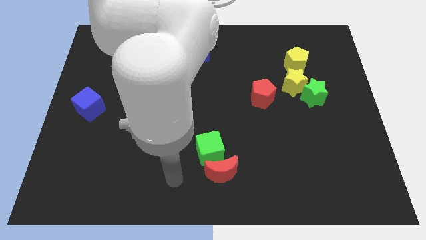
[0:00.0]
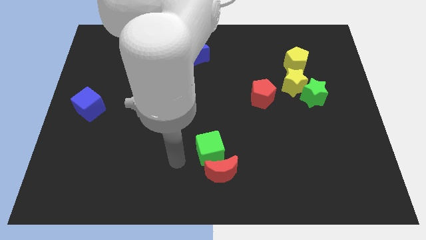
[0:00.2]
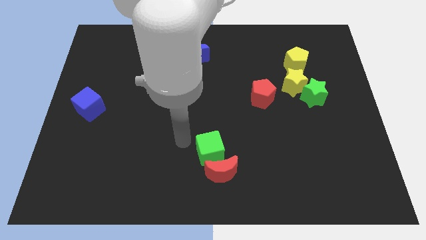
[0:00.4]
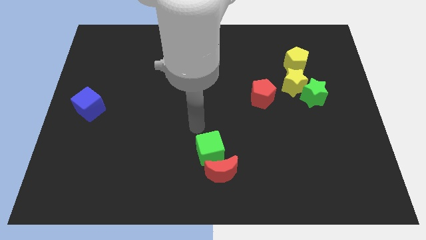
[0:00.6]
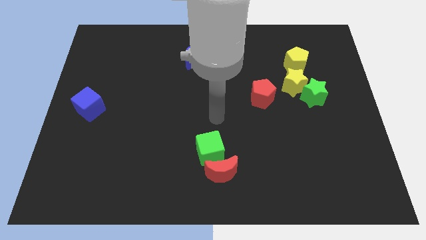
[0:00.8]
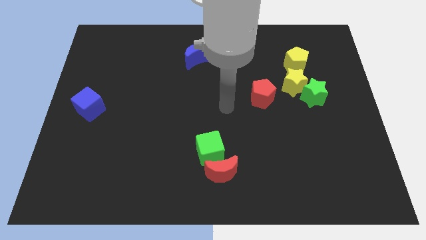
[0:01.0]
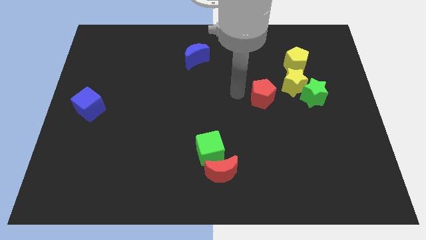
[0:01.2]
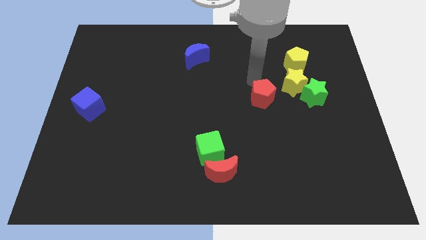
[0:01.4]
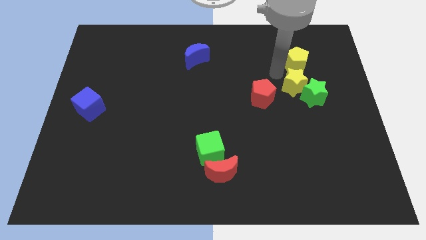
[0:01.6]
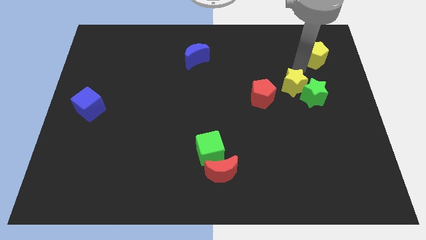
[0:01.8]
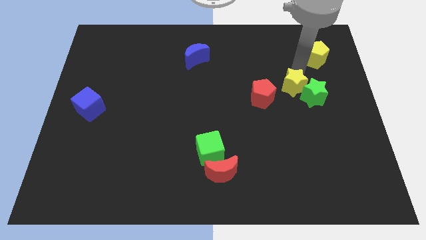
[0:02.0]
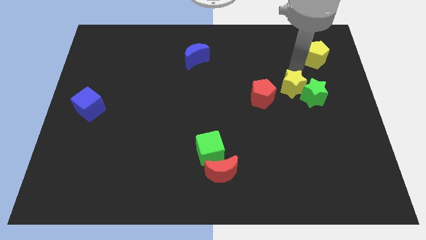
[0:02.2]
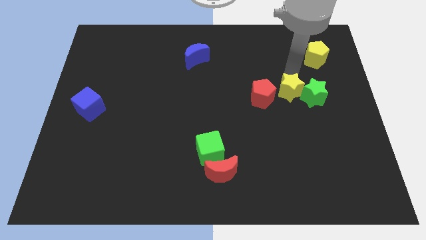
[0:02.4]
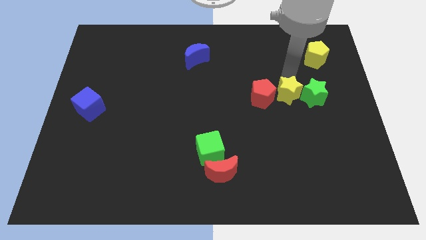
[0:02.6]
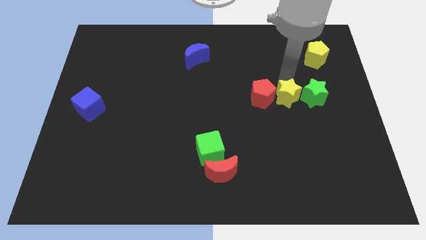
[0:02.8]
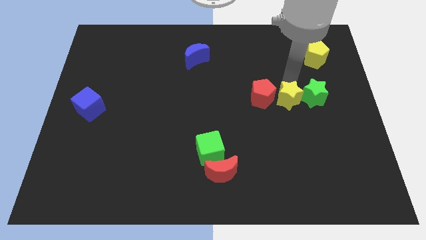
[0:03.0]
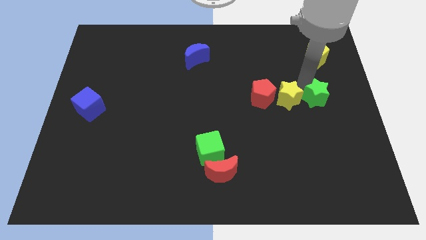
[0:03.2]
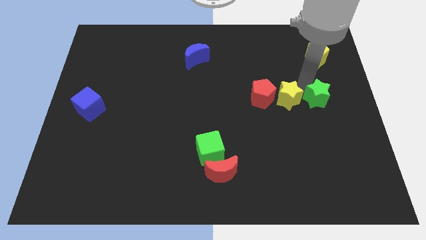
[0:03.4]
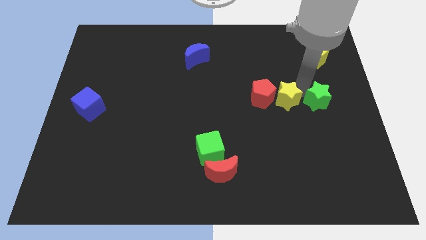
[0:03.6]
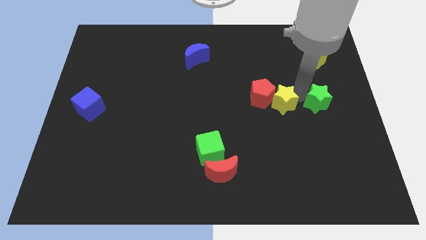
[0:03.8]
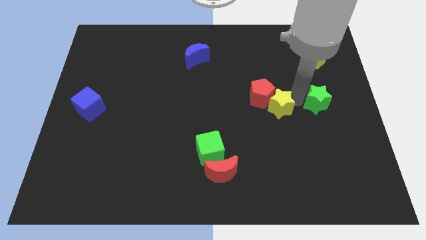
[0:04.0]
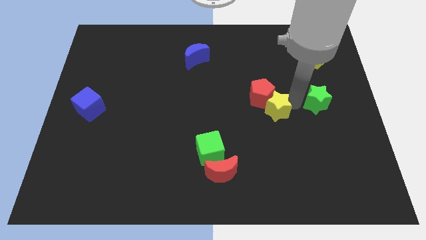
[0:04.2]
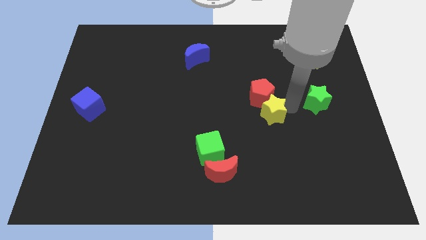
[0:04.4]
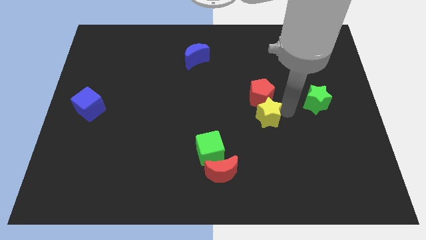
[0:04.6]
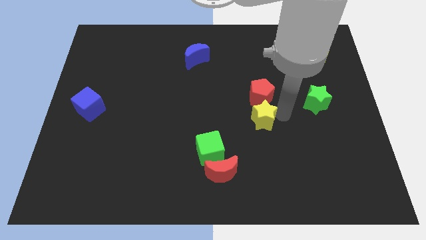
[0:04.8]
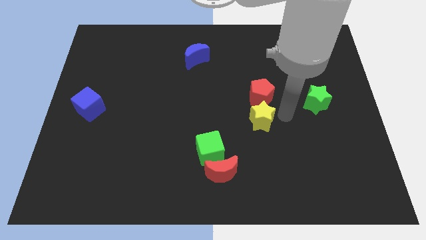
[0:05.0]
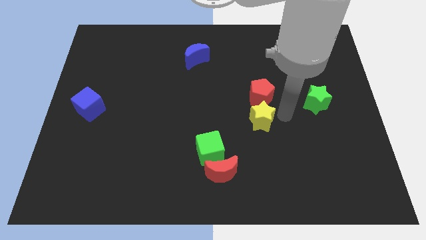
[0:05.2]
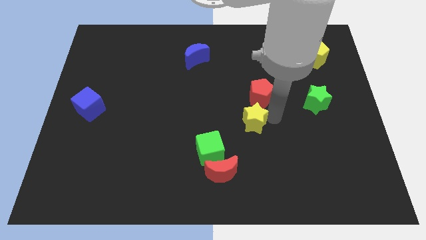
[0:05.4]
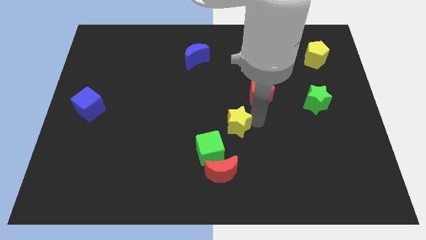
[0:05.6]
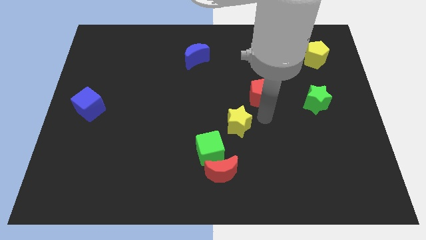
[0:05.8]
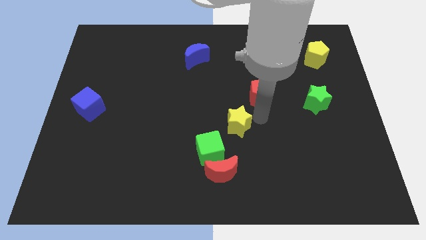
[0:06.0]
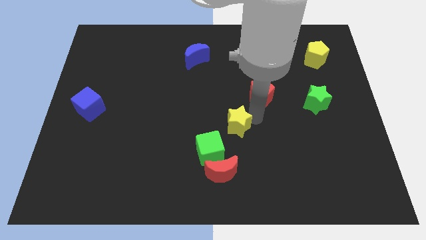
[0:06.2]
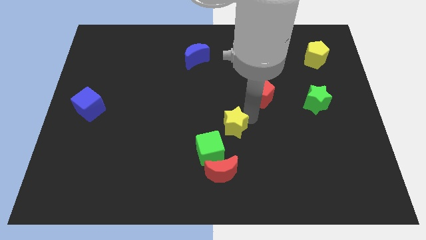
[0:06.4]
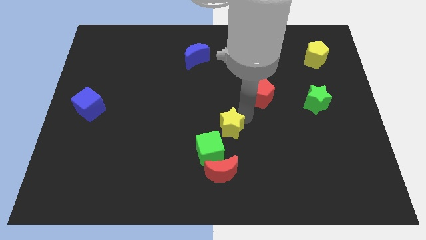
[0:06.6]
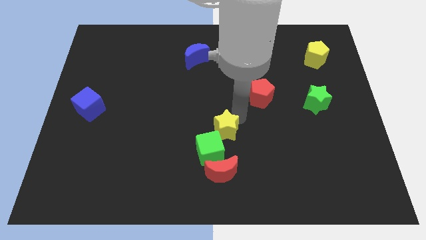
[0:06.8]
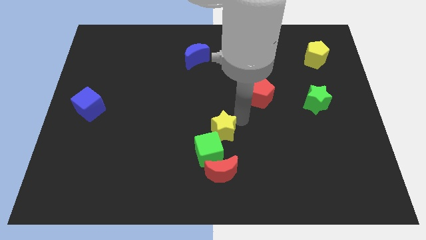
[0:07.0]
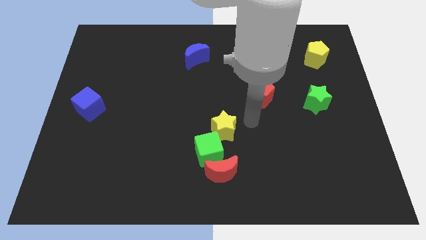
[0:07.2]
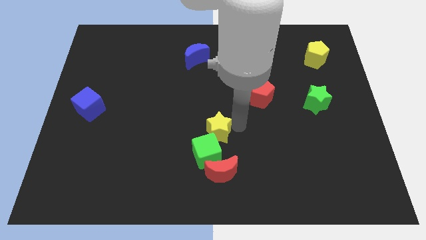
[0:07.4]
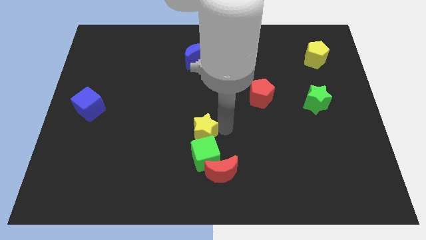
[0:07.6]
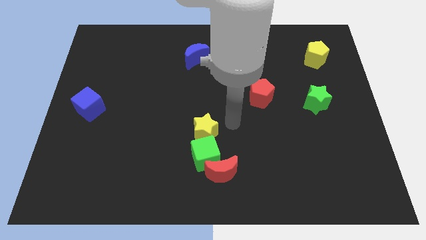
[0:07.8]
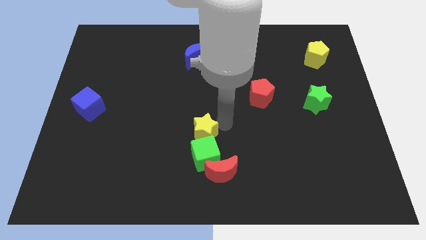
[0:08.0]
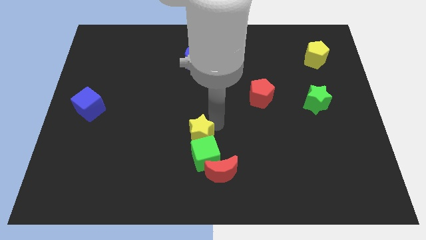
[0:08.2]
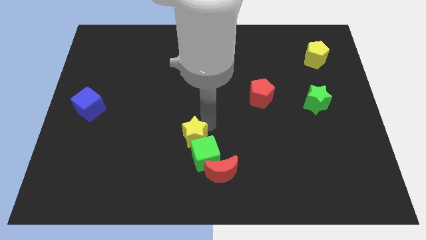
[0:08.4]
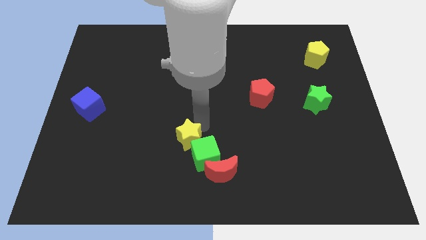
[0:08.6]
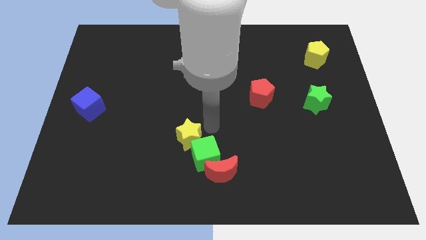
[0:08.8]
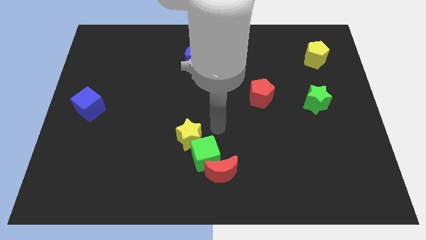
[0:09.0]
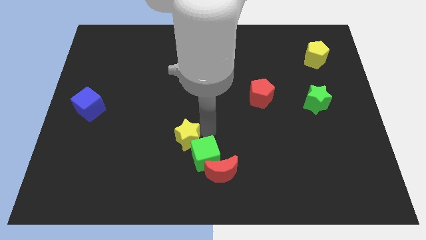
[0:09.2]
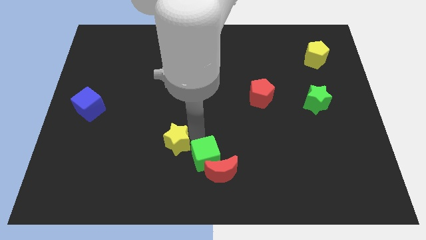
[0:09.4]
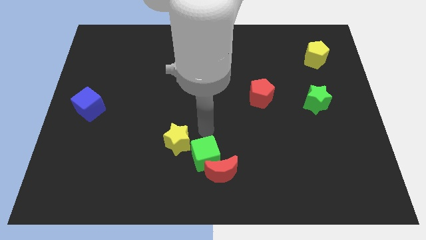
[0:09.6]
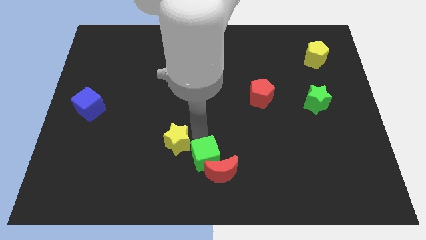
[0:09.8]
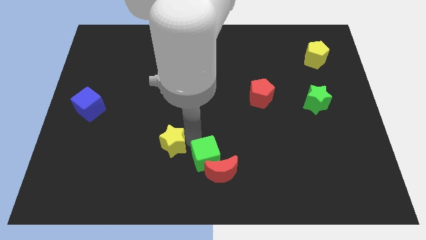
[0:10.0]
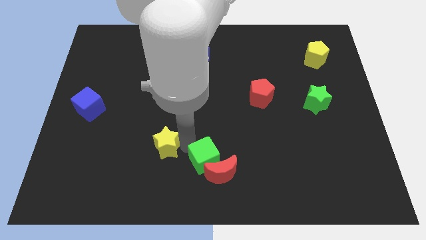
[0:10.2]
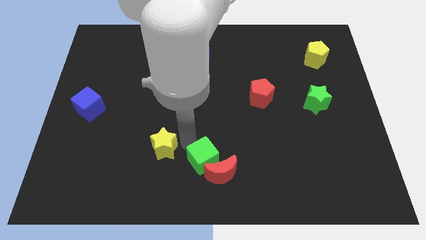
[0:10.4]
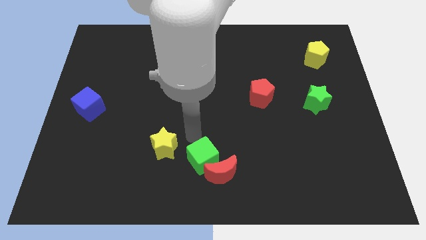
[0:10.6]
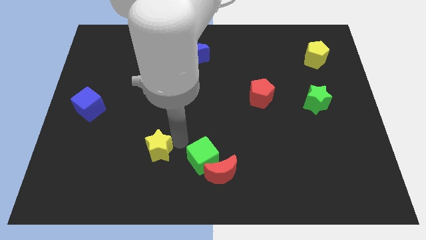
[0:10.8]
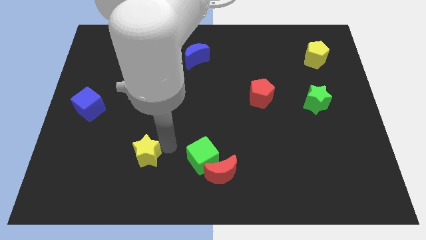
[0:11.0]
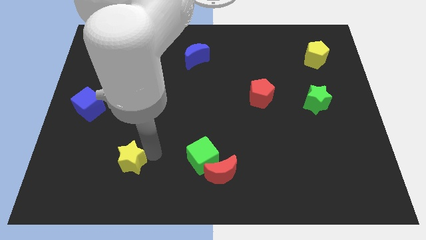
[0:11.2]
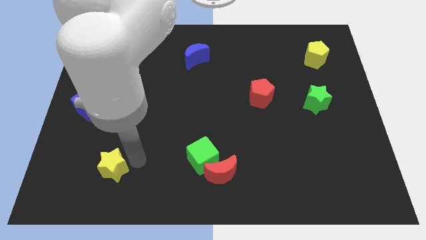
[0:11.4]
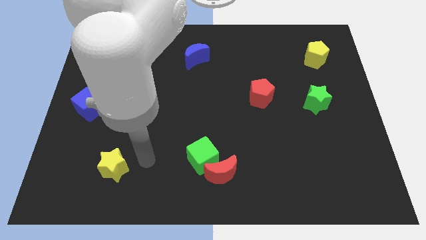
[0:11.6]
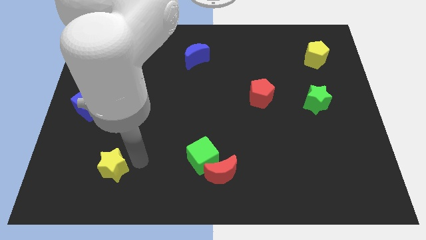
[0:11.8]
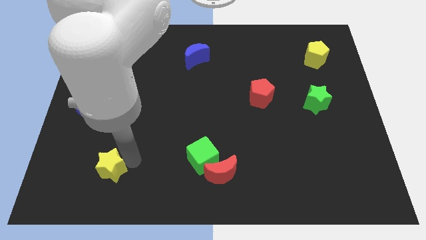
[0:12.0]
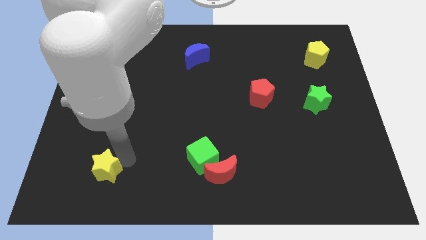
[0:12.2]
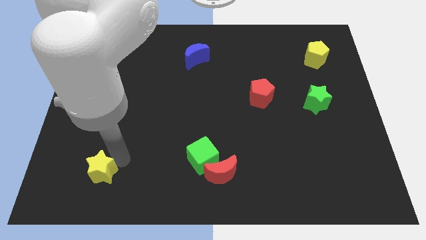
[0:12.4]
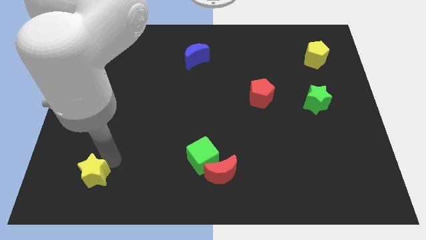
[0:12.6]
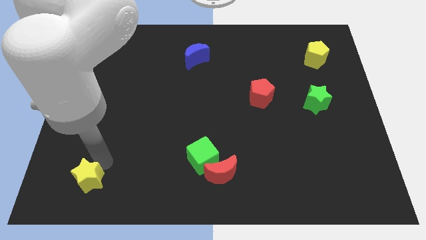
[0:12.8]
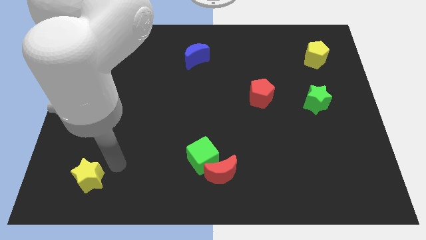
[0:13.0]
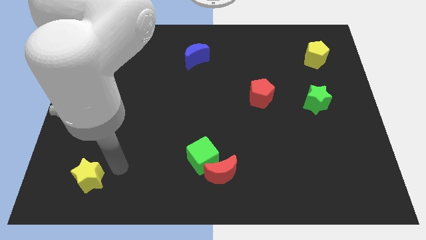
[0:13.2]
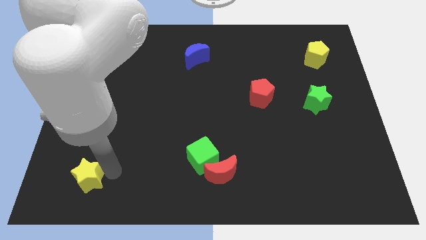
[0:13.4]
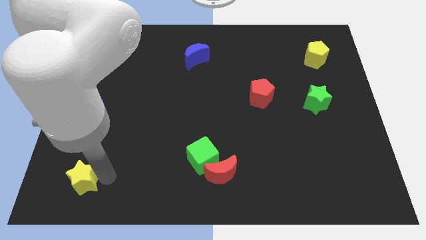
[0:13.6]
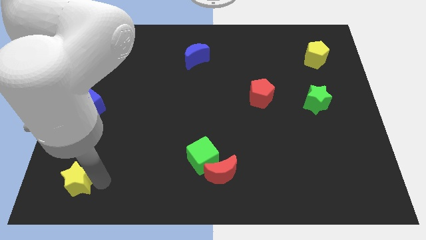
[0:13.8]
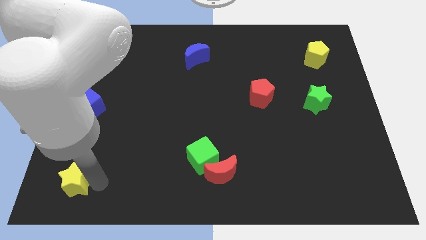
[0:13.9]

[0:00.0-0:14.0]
put the yellow star to the bottom left of the board
